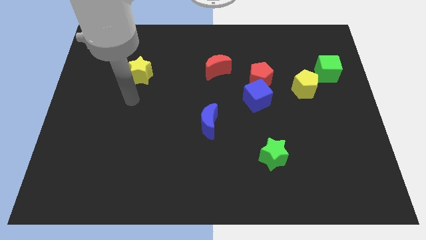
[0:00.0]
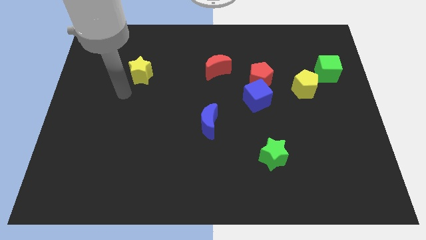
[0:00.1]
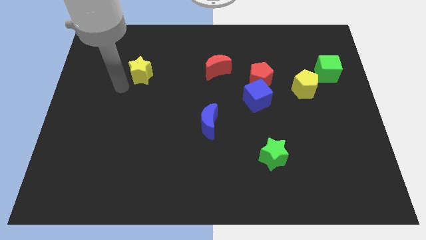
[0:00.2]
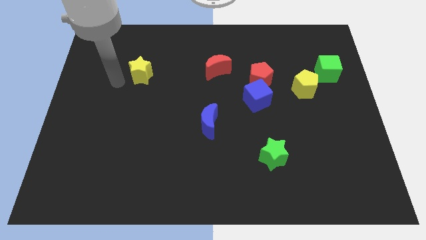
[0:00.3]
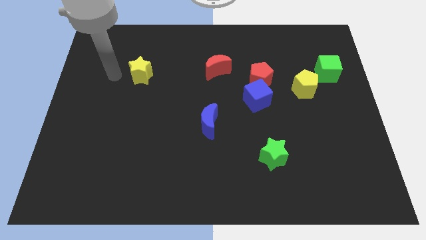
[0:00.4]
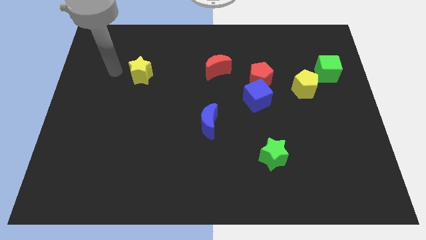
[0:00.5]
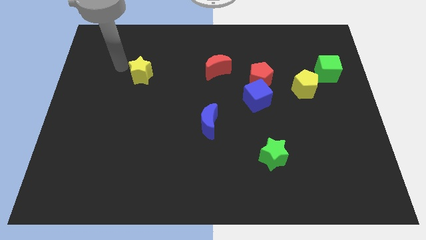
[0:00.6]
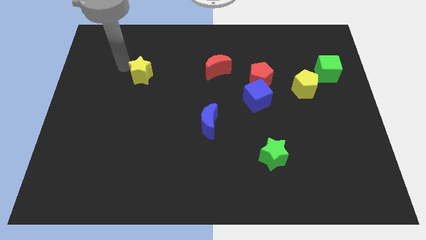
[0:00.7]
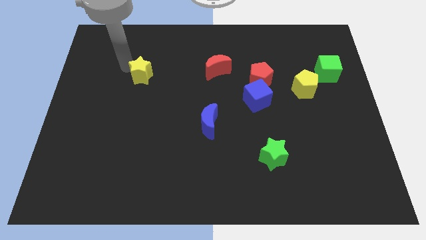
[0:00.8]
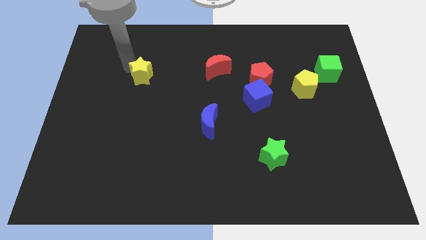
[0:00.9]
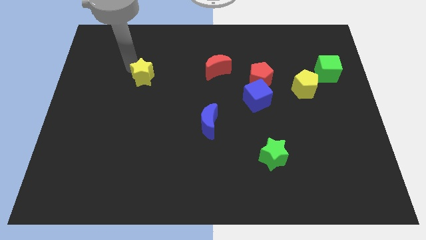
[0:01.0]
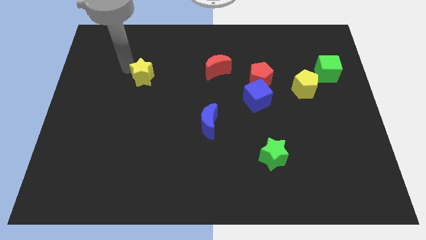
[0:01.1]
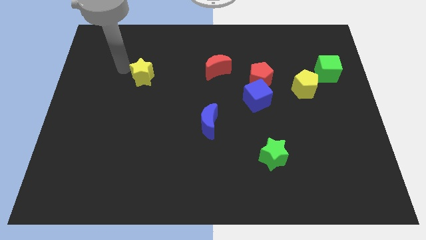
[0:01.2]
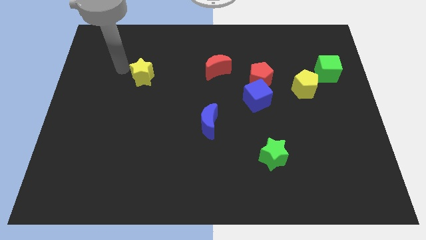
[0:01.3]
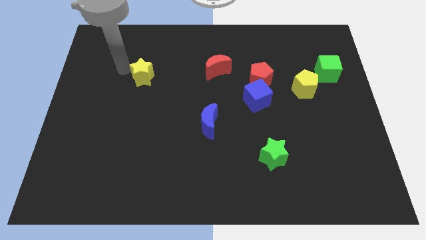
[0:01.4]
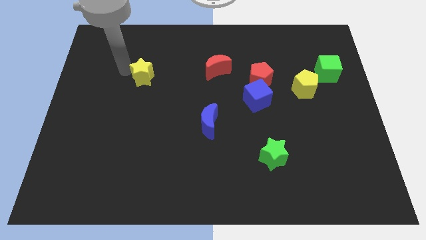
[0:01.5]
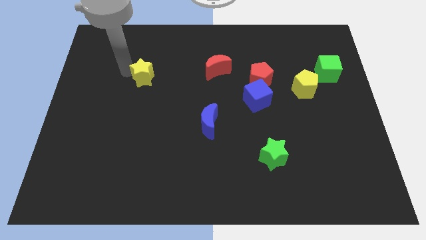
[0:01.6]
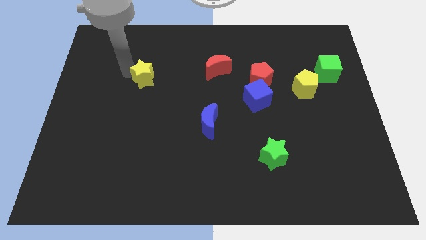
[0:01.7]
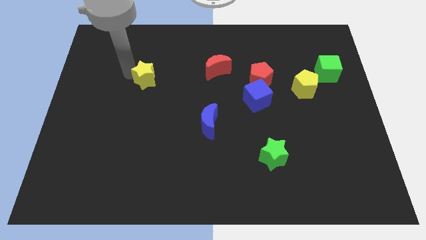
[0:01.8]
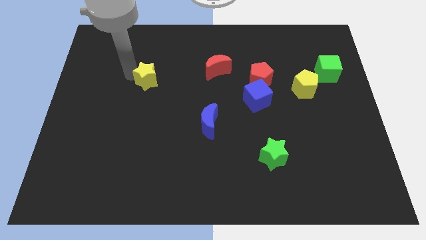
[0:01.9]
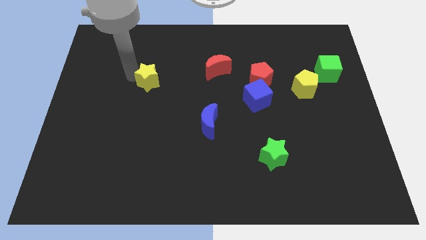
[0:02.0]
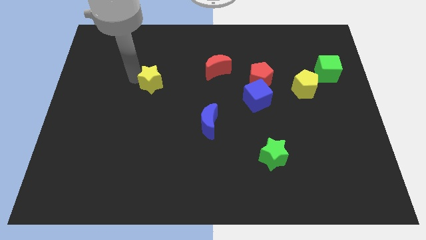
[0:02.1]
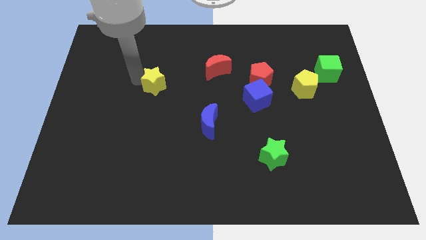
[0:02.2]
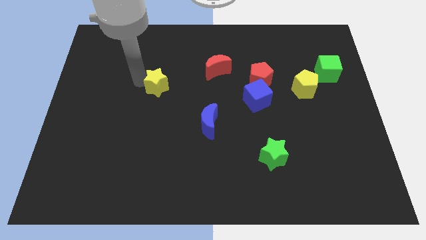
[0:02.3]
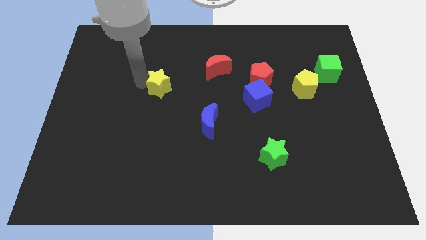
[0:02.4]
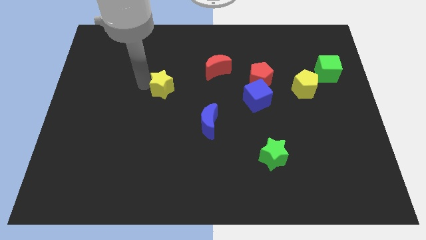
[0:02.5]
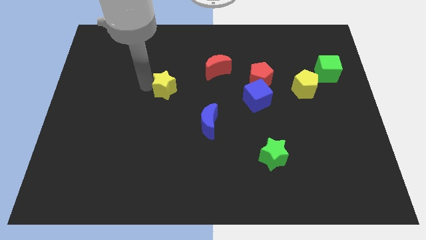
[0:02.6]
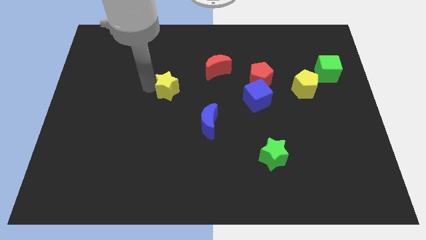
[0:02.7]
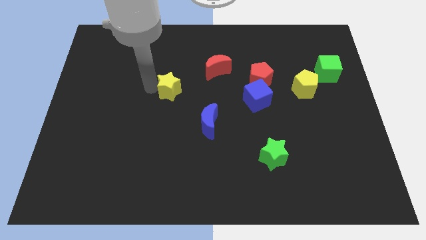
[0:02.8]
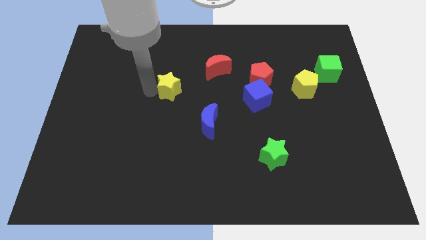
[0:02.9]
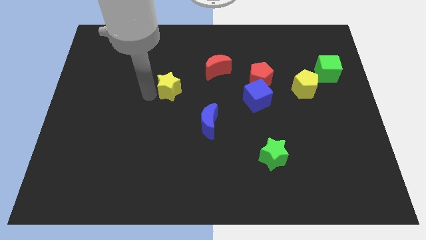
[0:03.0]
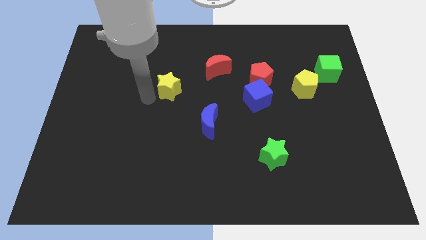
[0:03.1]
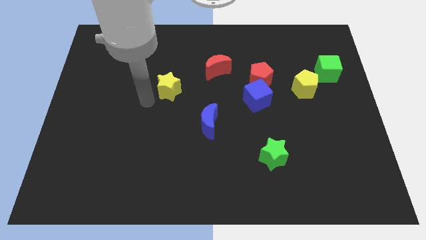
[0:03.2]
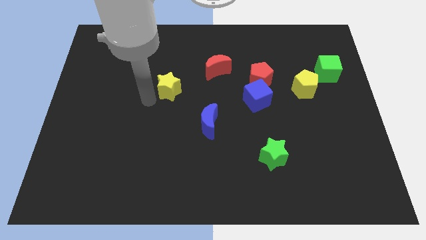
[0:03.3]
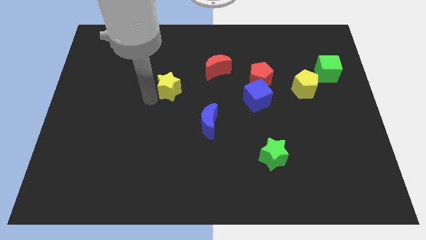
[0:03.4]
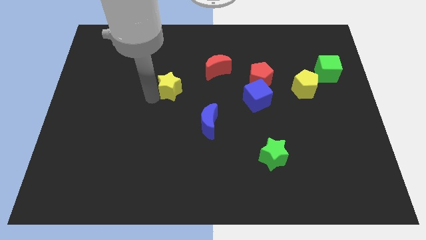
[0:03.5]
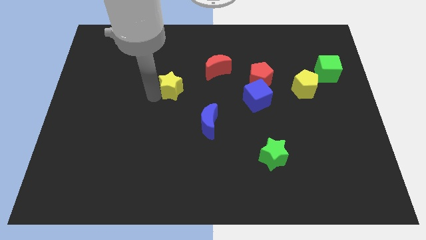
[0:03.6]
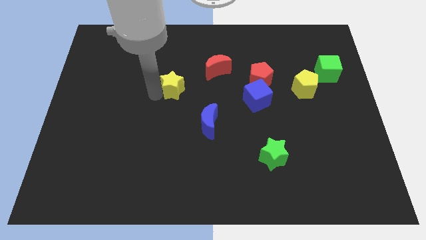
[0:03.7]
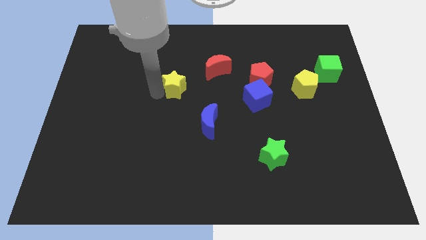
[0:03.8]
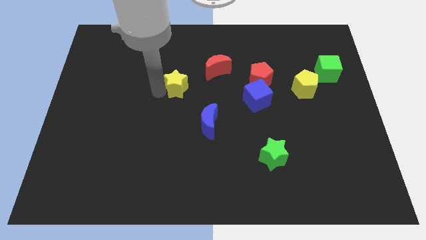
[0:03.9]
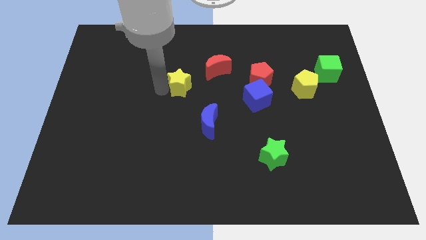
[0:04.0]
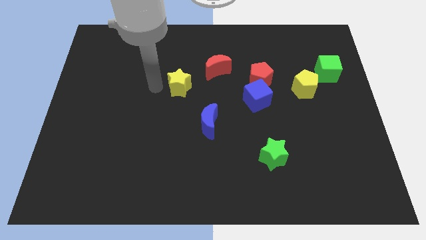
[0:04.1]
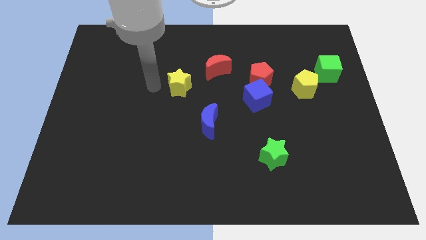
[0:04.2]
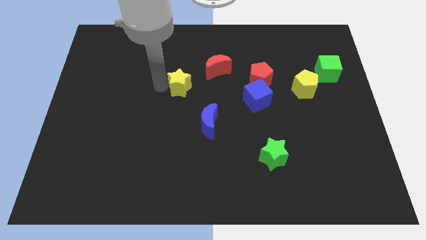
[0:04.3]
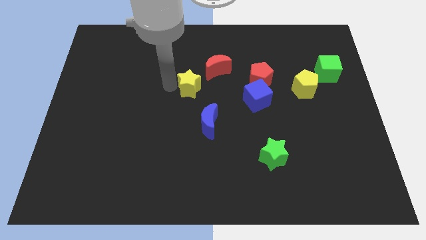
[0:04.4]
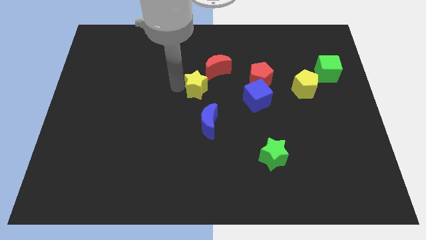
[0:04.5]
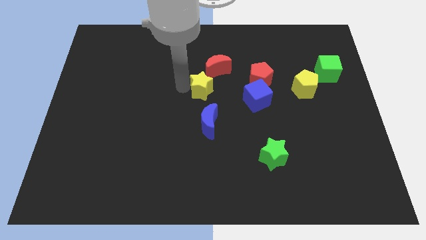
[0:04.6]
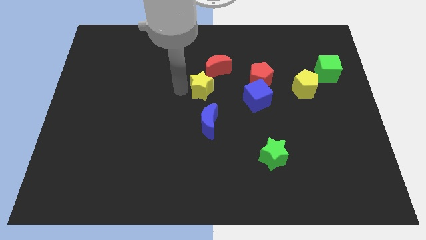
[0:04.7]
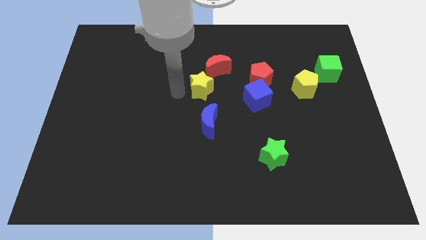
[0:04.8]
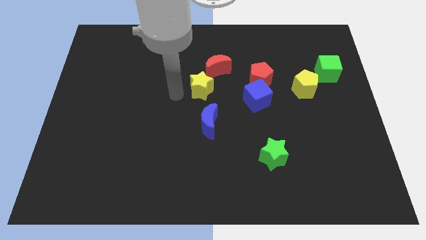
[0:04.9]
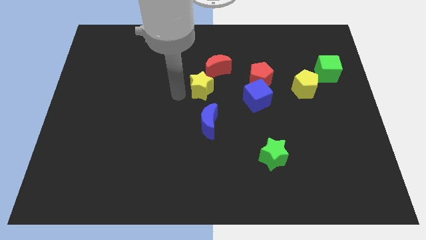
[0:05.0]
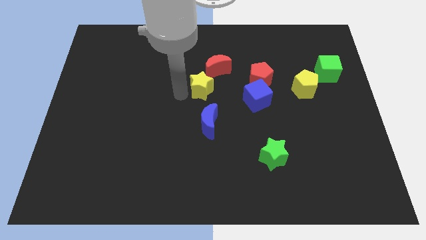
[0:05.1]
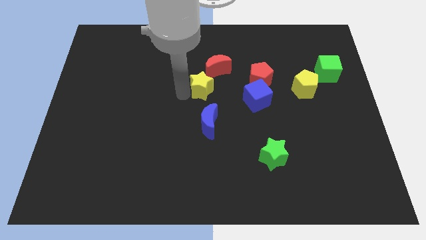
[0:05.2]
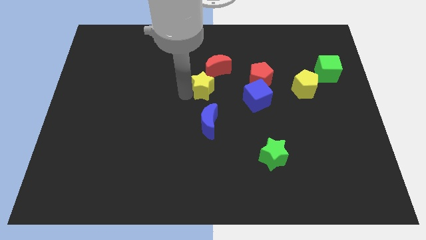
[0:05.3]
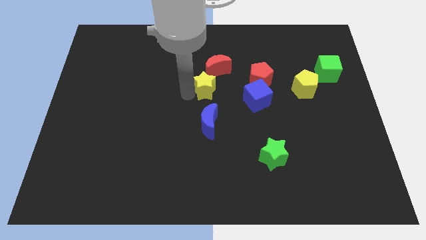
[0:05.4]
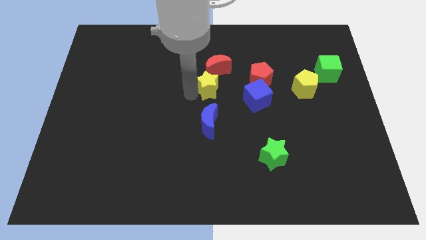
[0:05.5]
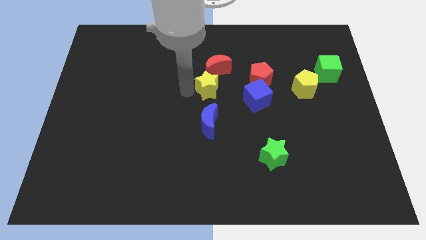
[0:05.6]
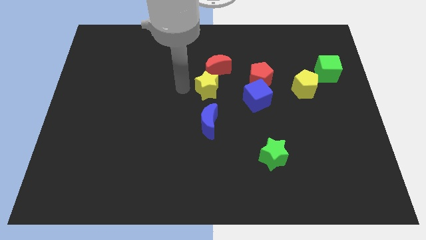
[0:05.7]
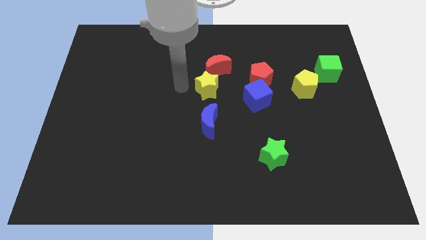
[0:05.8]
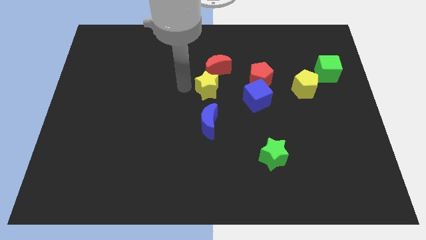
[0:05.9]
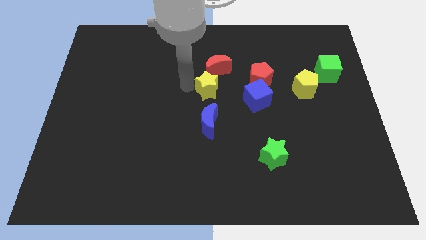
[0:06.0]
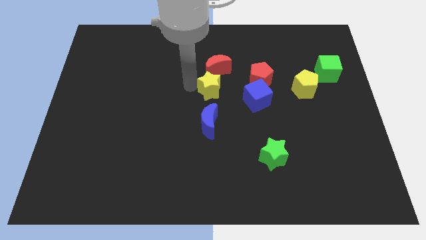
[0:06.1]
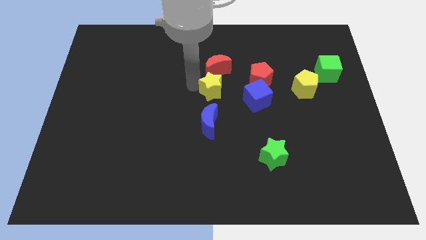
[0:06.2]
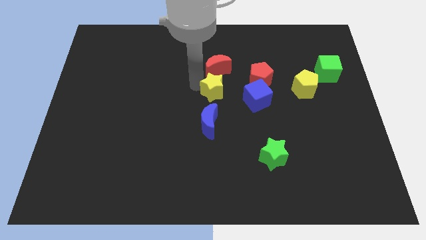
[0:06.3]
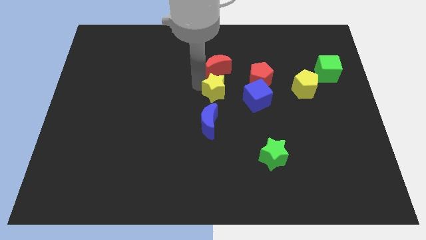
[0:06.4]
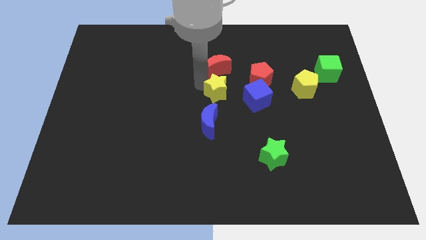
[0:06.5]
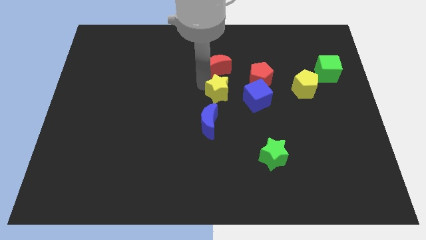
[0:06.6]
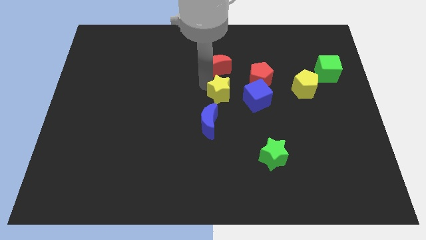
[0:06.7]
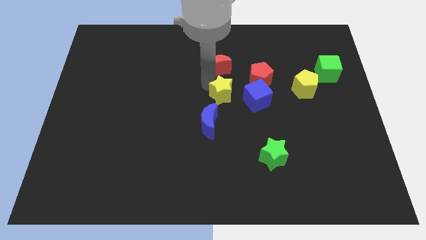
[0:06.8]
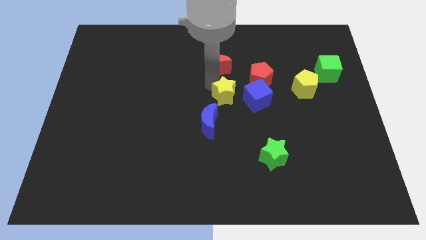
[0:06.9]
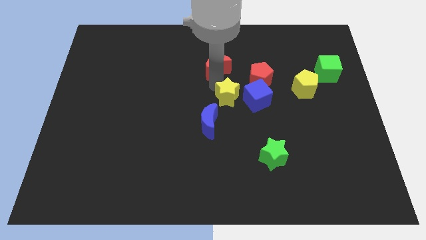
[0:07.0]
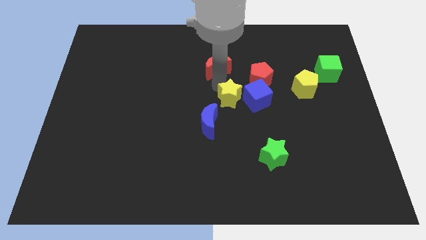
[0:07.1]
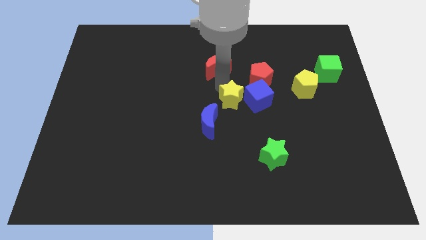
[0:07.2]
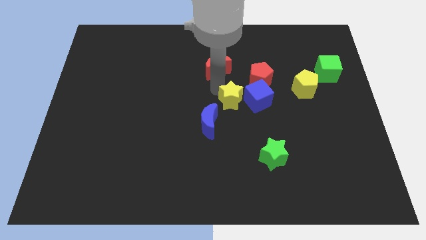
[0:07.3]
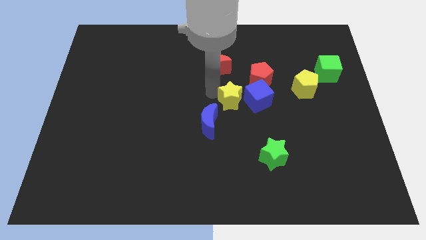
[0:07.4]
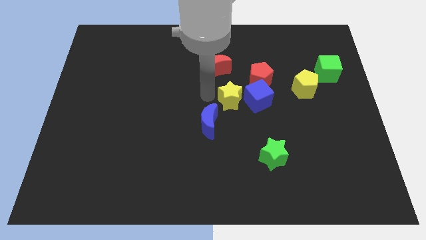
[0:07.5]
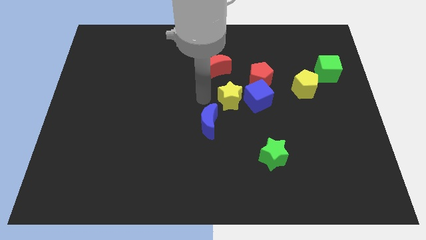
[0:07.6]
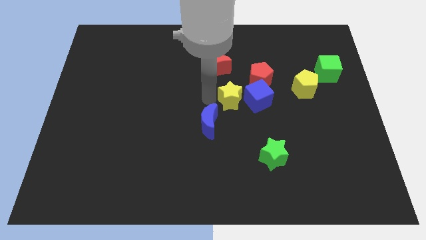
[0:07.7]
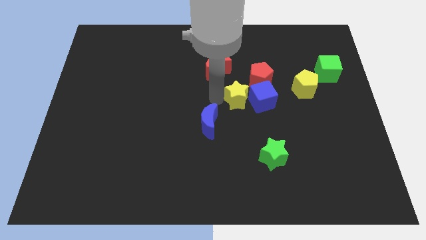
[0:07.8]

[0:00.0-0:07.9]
slide the yellow star towards the blue cube
